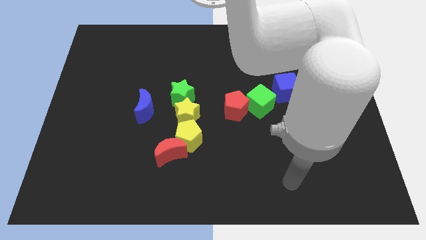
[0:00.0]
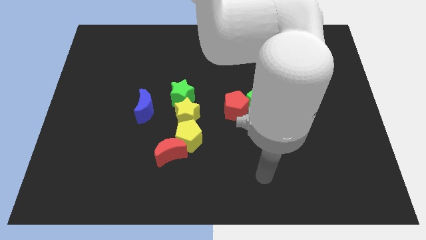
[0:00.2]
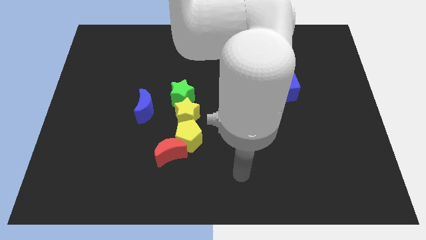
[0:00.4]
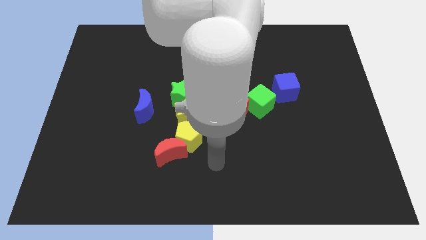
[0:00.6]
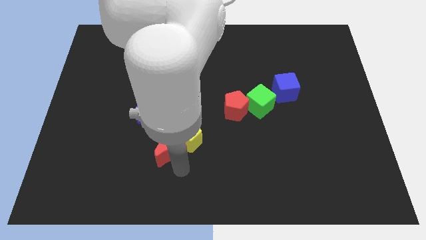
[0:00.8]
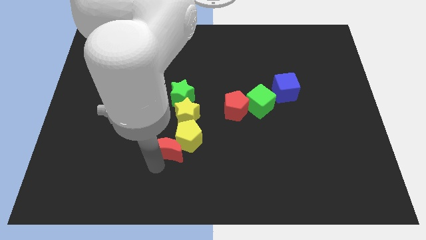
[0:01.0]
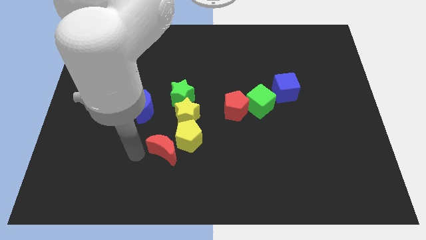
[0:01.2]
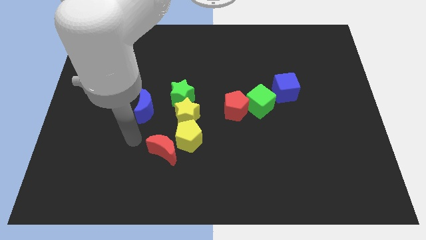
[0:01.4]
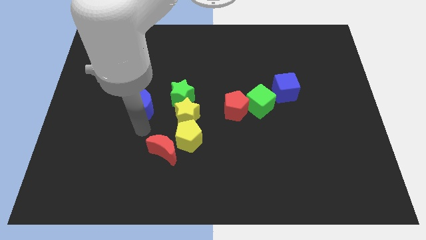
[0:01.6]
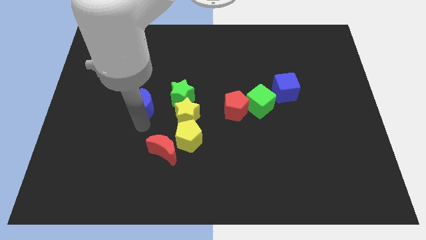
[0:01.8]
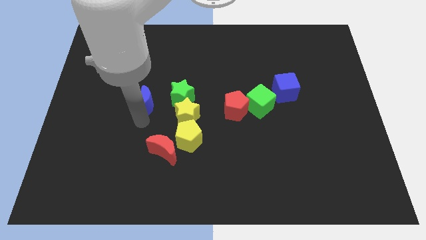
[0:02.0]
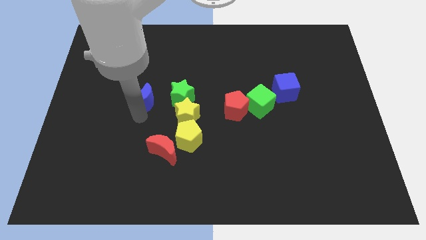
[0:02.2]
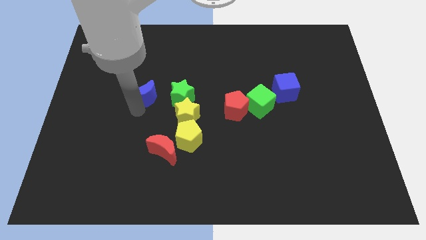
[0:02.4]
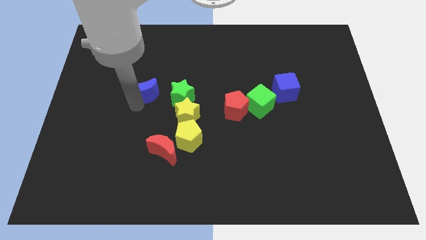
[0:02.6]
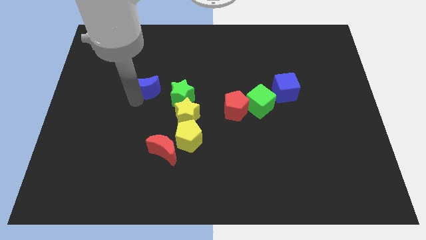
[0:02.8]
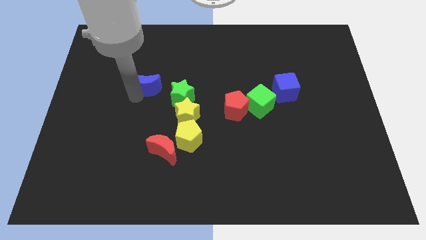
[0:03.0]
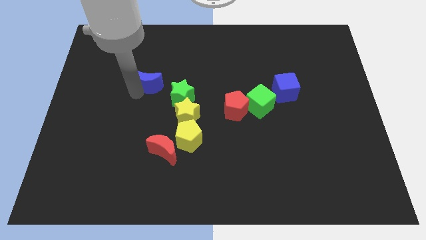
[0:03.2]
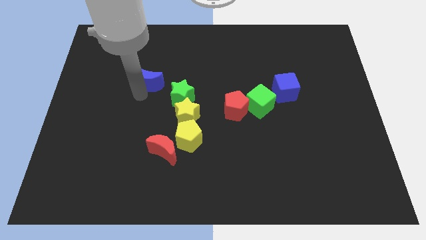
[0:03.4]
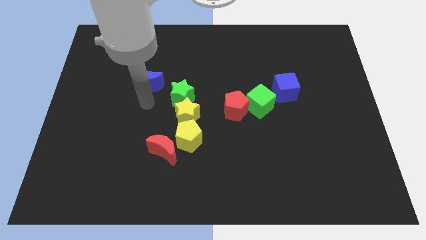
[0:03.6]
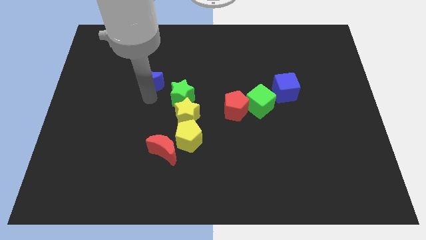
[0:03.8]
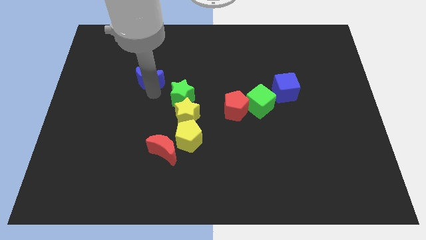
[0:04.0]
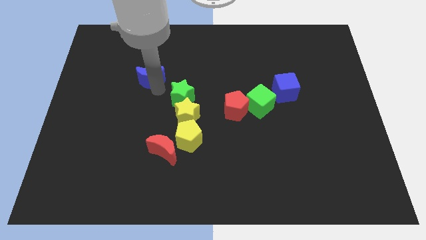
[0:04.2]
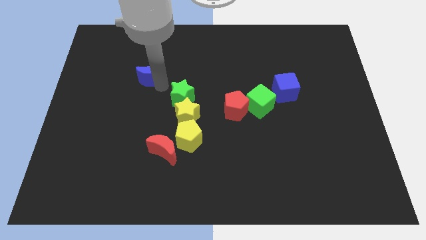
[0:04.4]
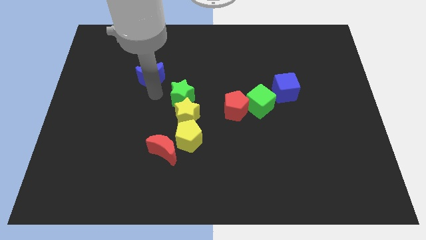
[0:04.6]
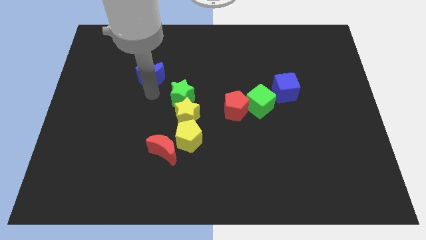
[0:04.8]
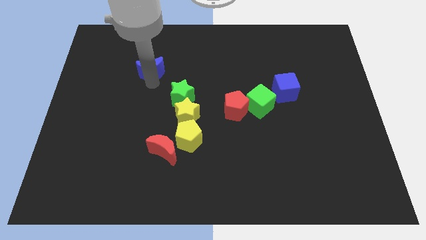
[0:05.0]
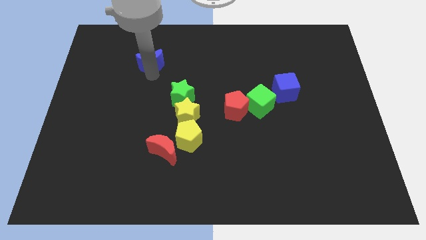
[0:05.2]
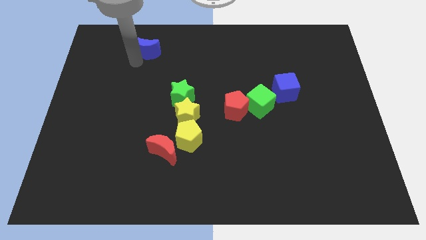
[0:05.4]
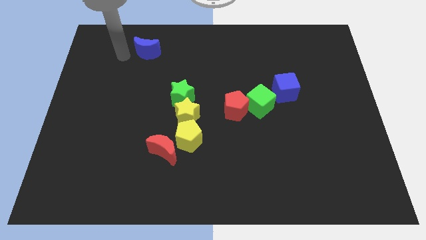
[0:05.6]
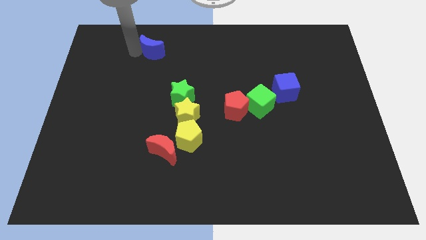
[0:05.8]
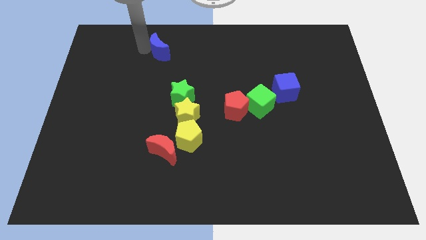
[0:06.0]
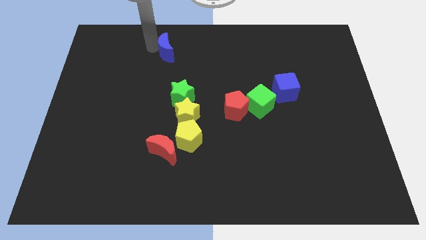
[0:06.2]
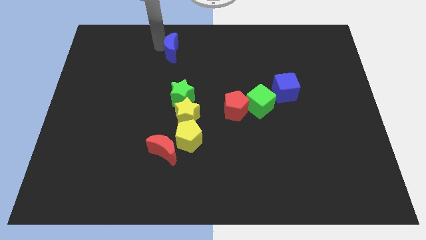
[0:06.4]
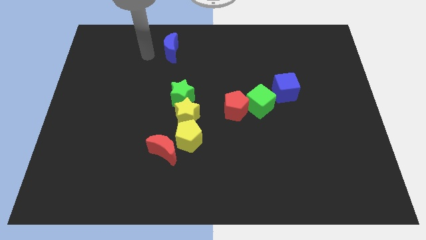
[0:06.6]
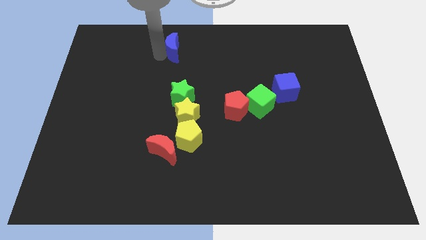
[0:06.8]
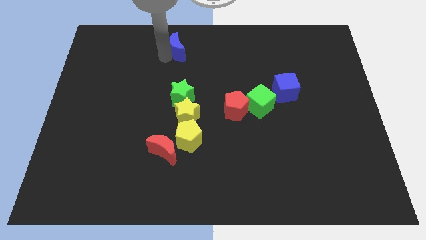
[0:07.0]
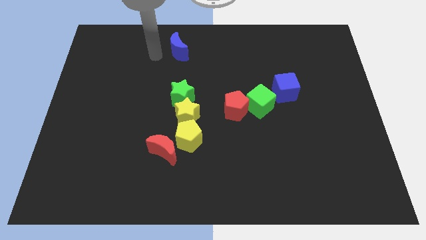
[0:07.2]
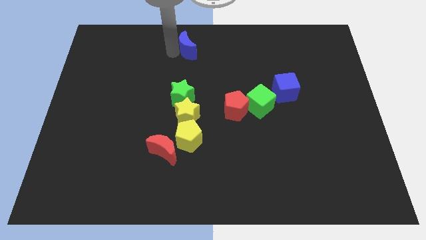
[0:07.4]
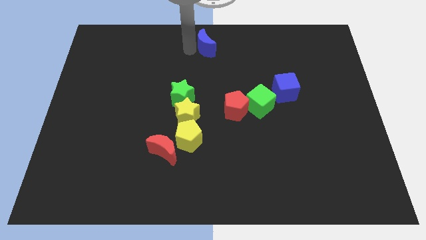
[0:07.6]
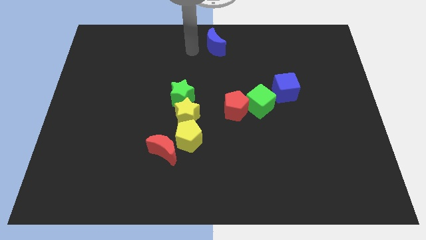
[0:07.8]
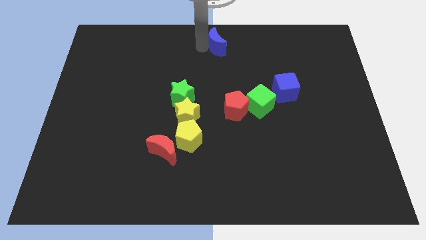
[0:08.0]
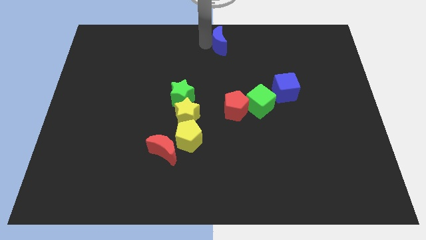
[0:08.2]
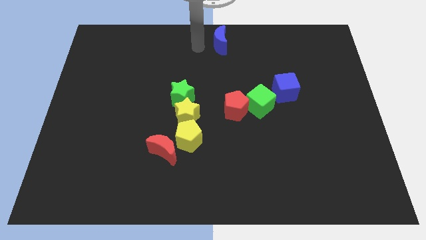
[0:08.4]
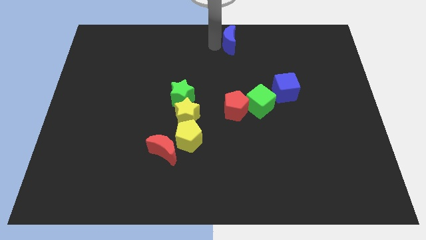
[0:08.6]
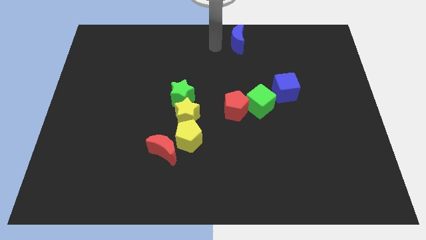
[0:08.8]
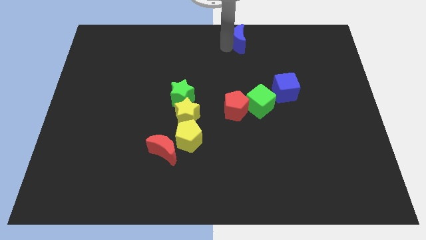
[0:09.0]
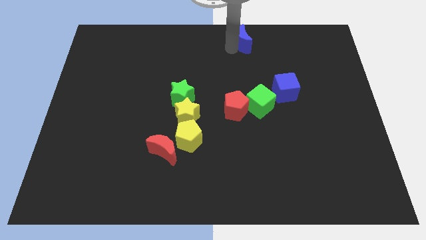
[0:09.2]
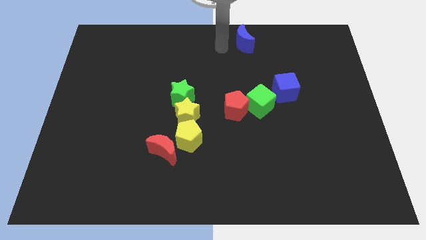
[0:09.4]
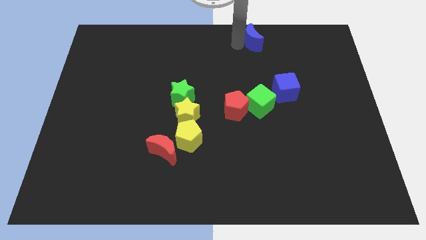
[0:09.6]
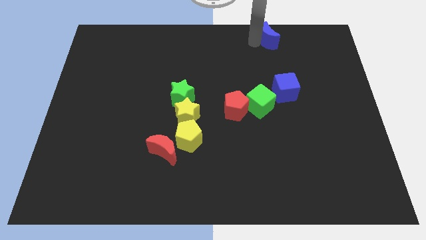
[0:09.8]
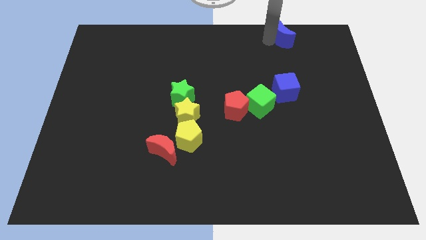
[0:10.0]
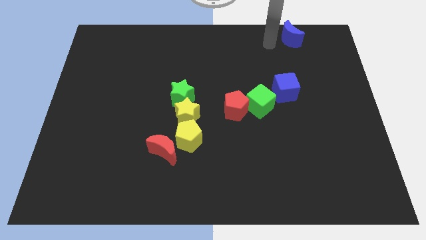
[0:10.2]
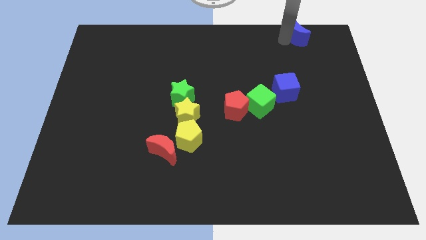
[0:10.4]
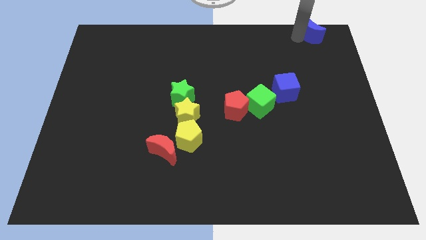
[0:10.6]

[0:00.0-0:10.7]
push the blue moon to the top right corner

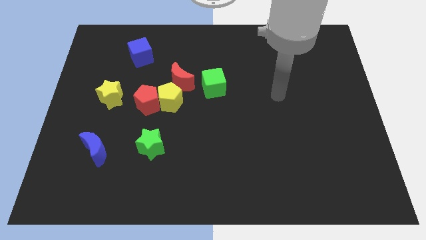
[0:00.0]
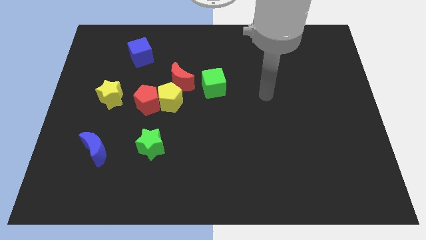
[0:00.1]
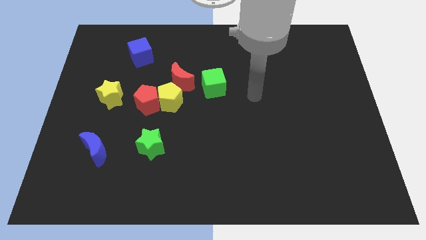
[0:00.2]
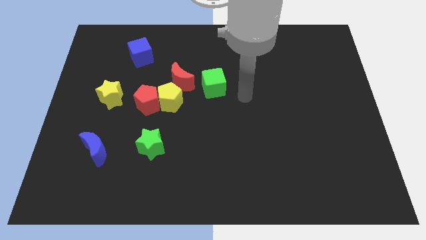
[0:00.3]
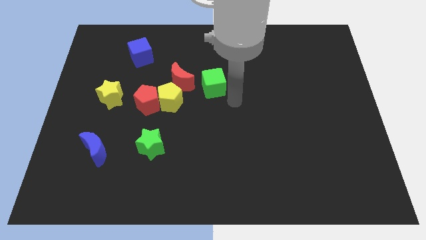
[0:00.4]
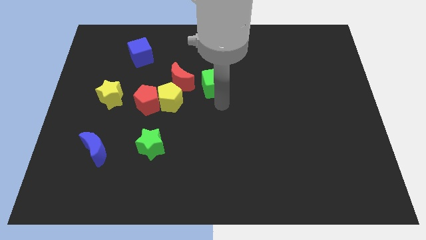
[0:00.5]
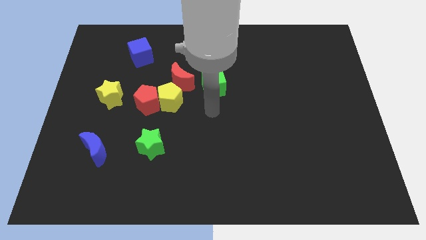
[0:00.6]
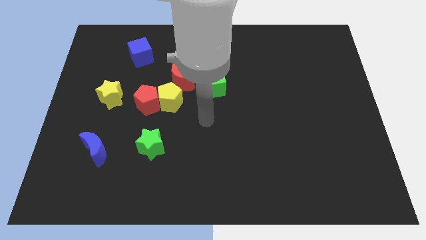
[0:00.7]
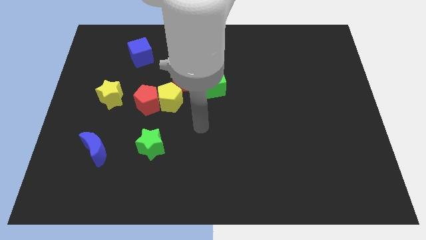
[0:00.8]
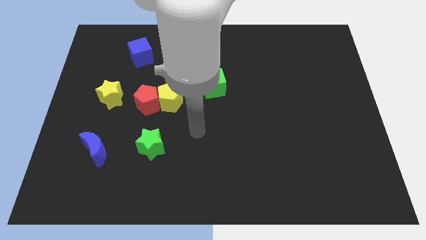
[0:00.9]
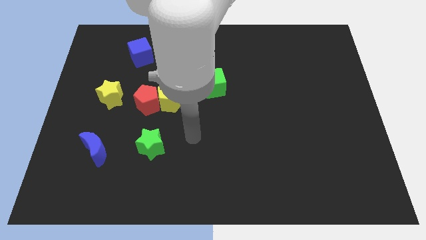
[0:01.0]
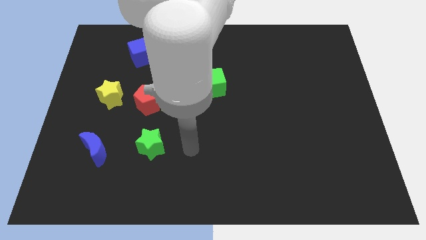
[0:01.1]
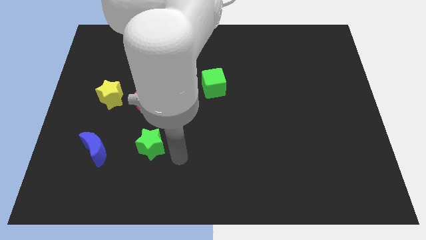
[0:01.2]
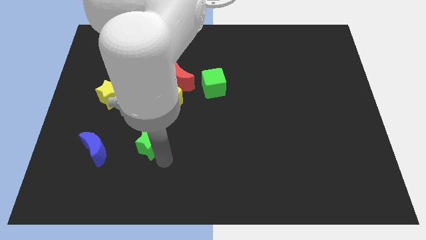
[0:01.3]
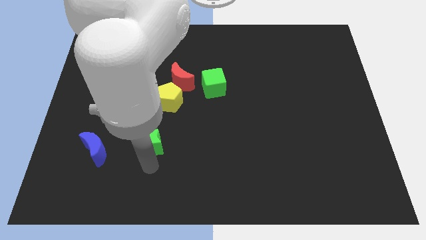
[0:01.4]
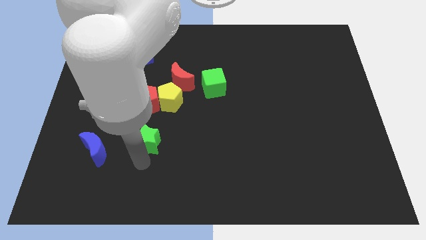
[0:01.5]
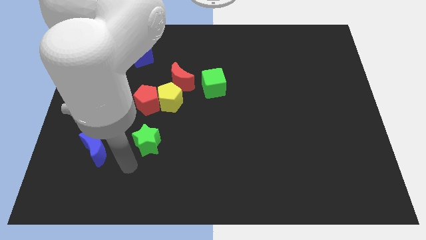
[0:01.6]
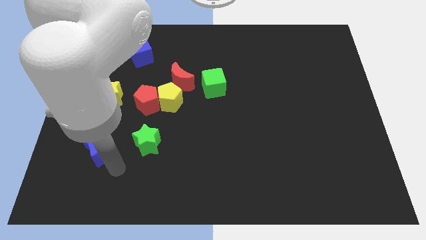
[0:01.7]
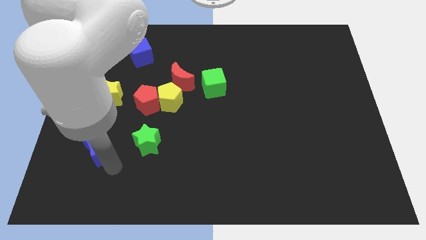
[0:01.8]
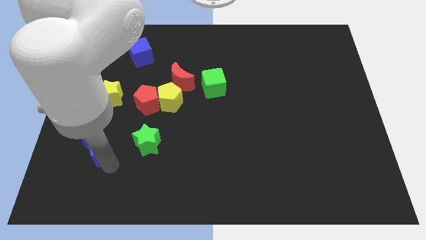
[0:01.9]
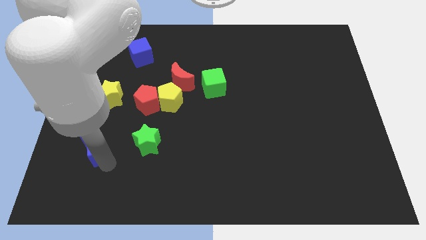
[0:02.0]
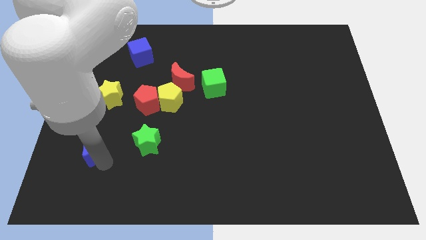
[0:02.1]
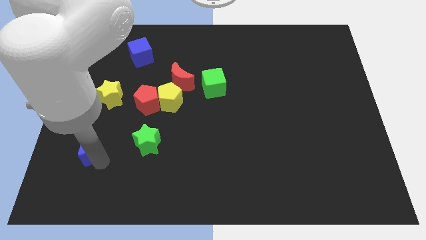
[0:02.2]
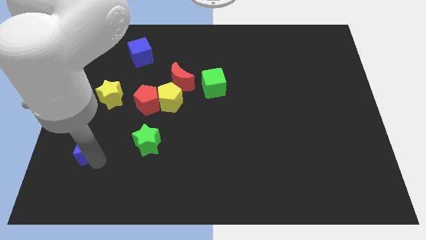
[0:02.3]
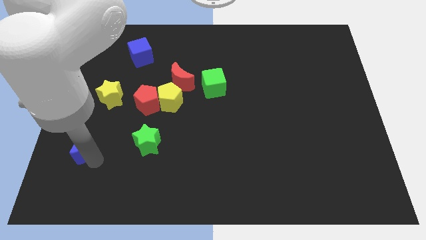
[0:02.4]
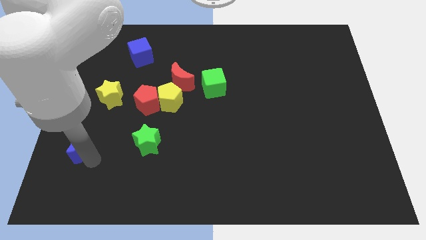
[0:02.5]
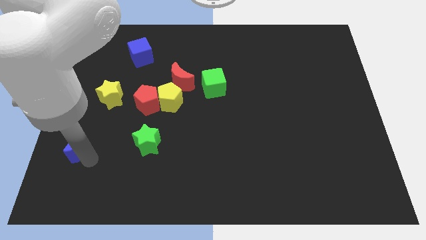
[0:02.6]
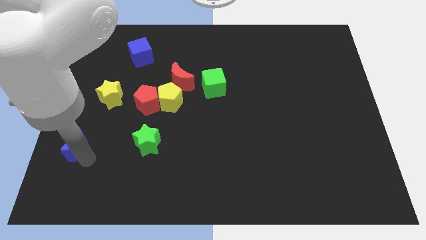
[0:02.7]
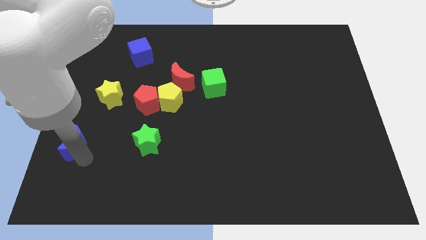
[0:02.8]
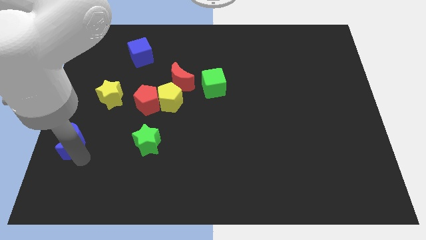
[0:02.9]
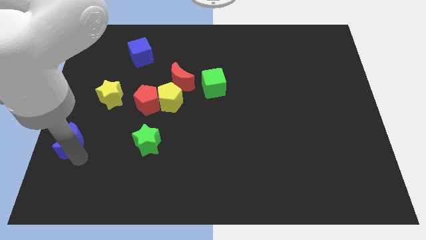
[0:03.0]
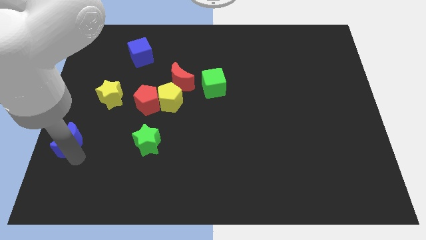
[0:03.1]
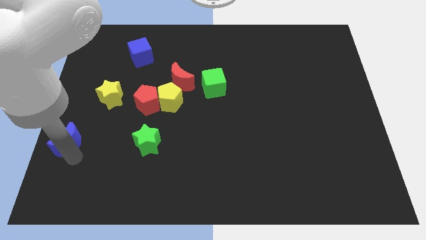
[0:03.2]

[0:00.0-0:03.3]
move the blue moon to the left side
